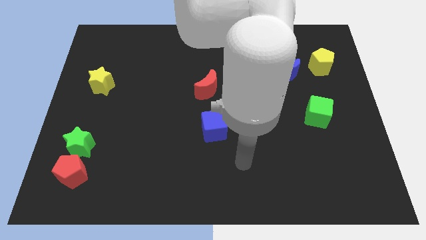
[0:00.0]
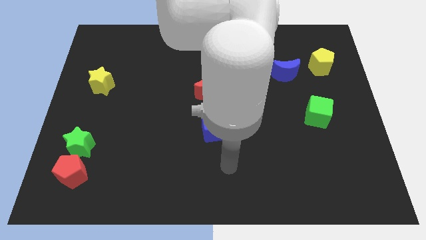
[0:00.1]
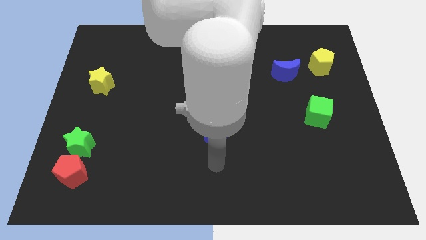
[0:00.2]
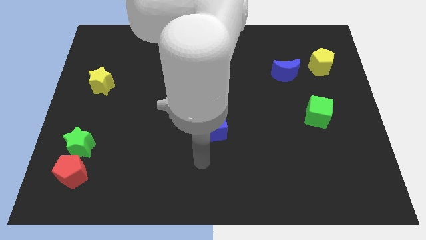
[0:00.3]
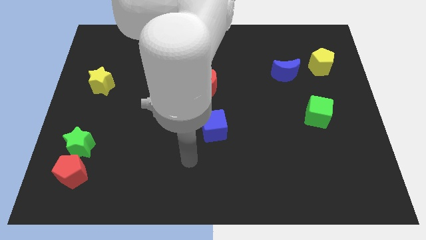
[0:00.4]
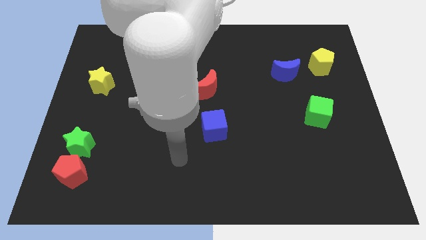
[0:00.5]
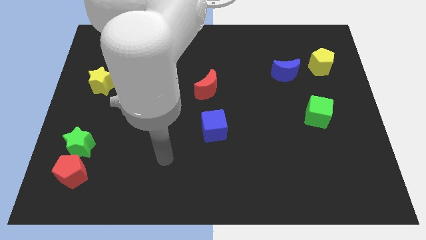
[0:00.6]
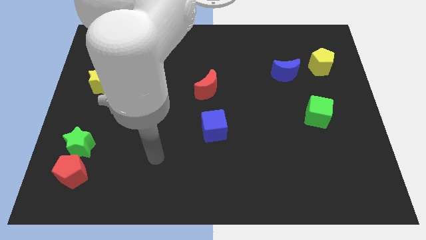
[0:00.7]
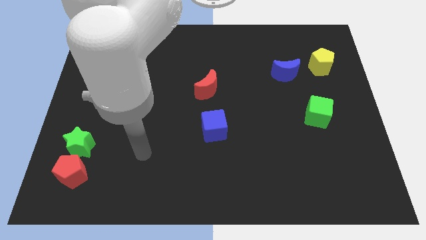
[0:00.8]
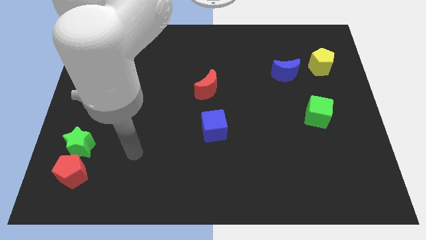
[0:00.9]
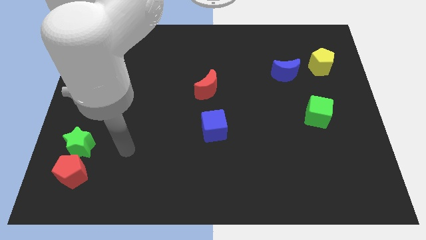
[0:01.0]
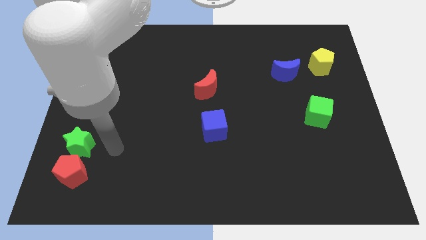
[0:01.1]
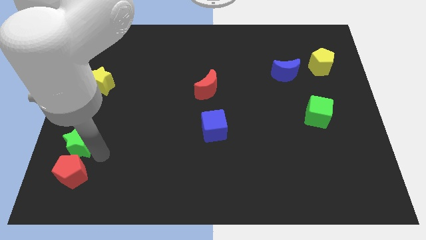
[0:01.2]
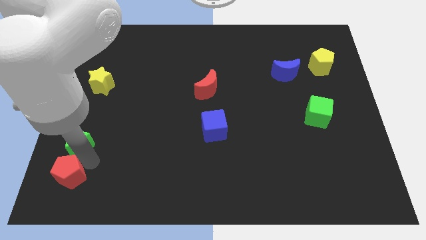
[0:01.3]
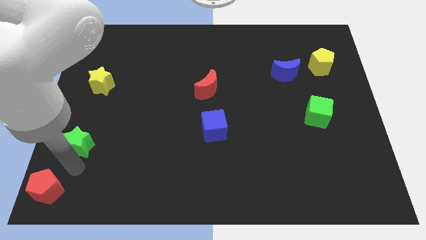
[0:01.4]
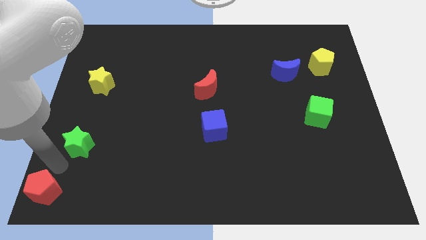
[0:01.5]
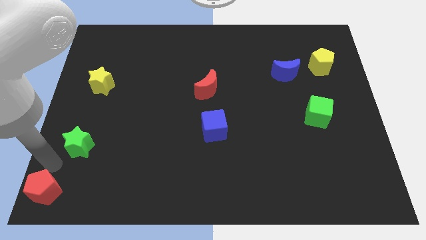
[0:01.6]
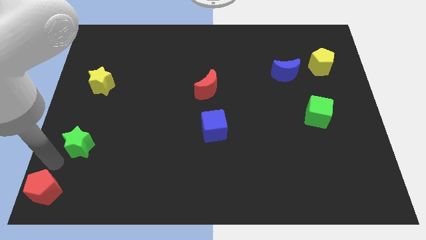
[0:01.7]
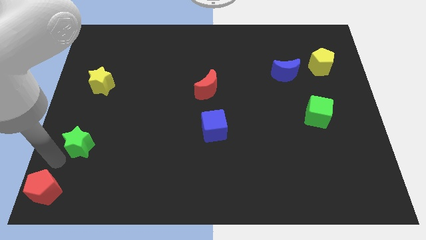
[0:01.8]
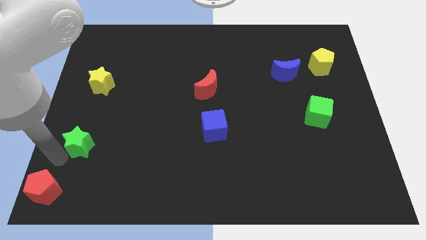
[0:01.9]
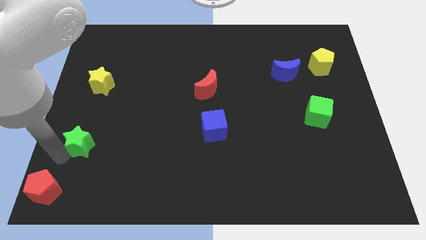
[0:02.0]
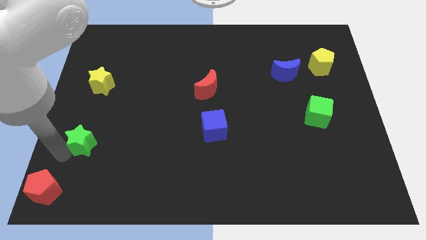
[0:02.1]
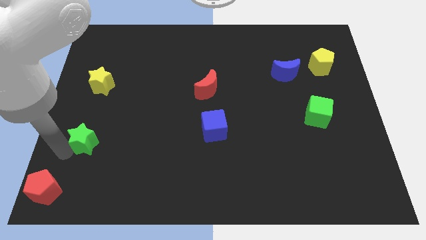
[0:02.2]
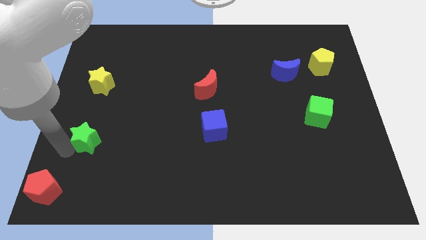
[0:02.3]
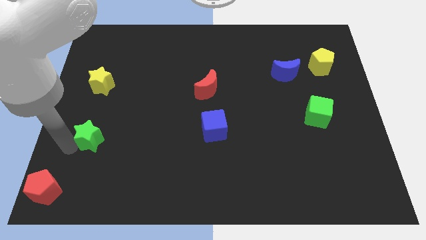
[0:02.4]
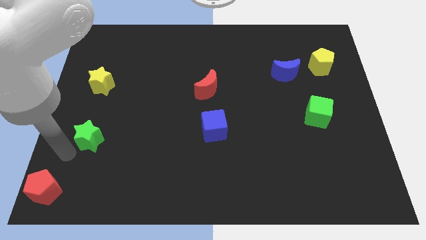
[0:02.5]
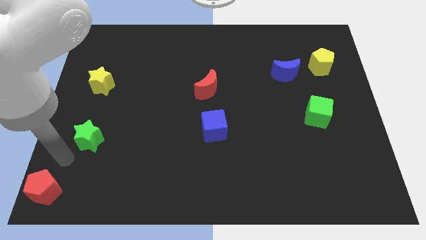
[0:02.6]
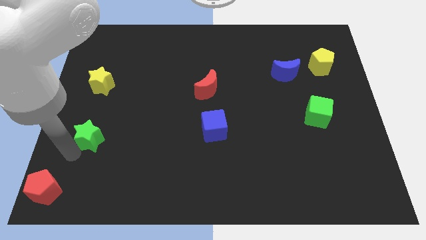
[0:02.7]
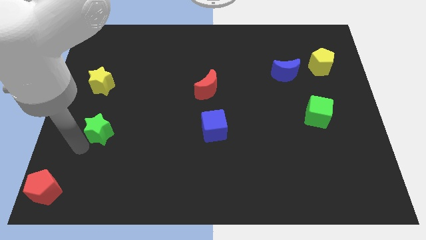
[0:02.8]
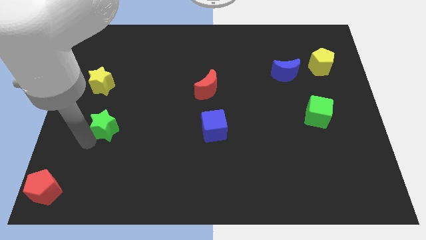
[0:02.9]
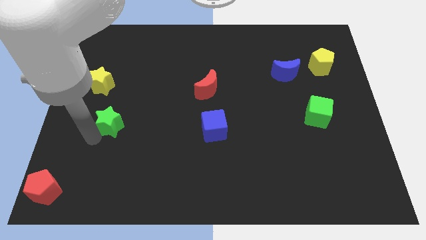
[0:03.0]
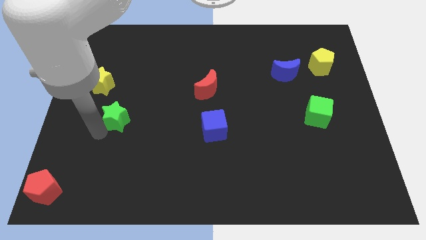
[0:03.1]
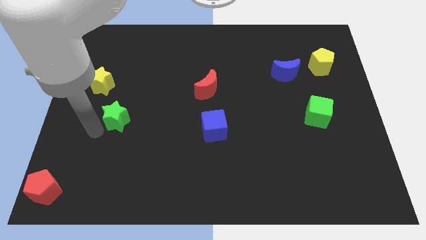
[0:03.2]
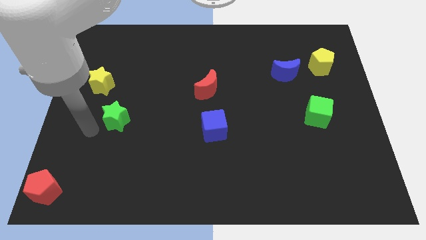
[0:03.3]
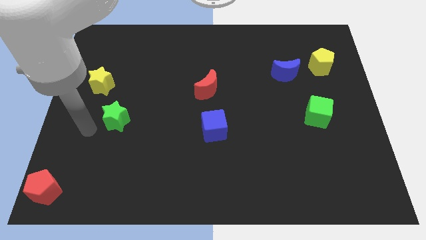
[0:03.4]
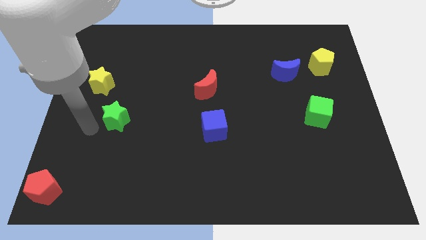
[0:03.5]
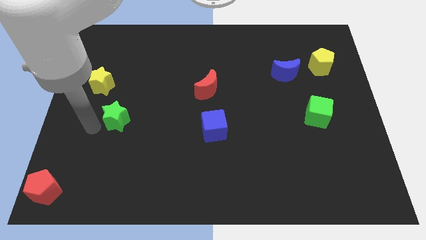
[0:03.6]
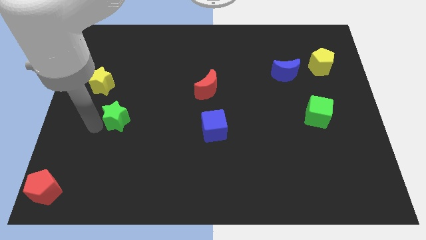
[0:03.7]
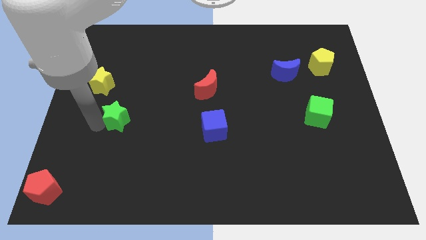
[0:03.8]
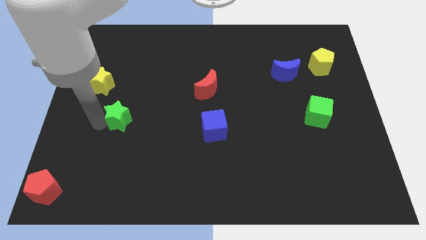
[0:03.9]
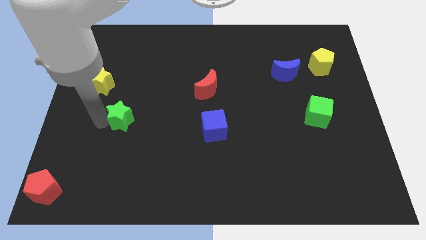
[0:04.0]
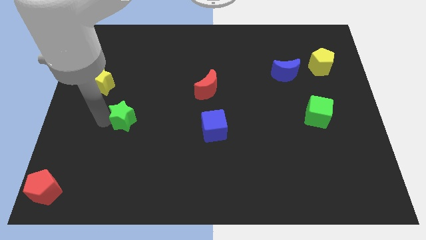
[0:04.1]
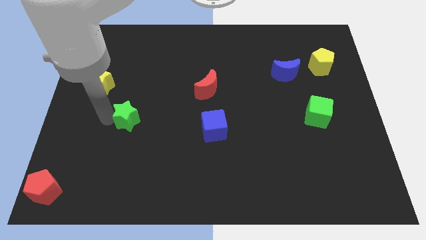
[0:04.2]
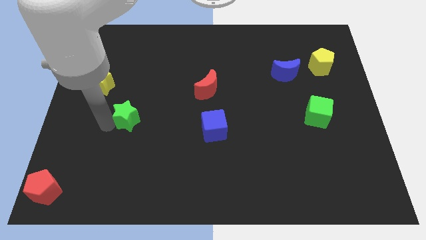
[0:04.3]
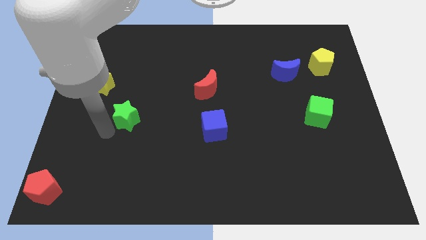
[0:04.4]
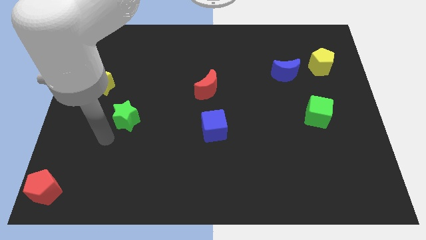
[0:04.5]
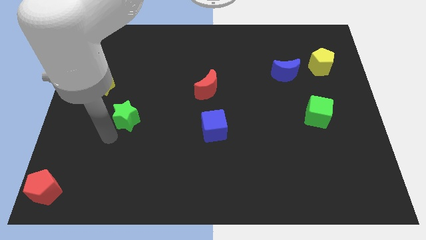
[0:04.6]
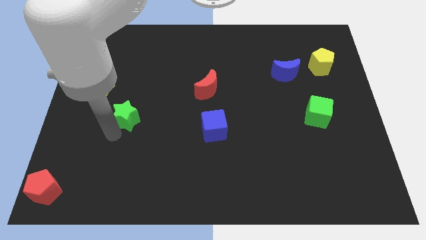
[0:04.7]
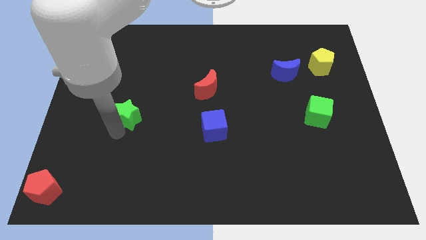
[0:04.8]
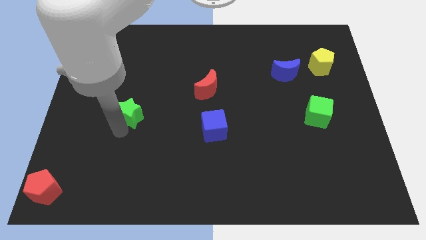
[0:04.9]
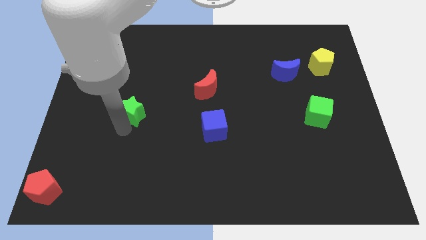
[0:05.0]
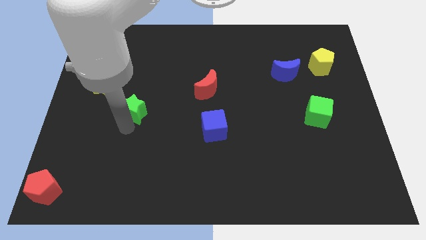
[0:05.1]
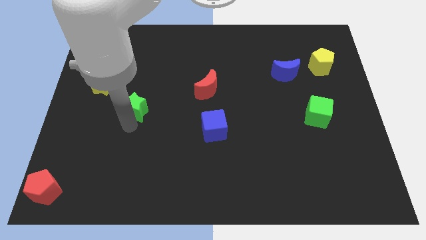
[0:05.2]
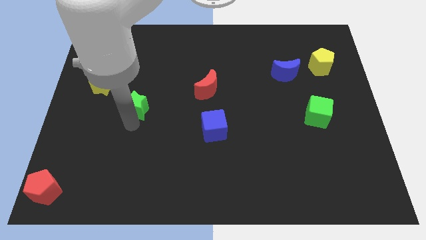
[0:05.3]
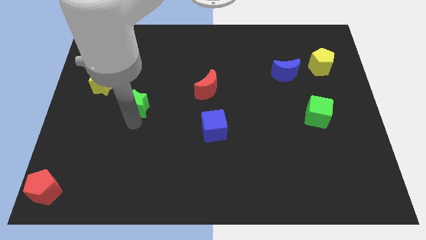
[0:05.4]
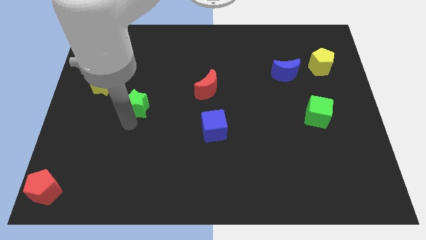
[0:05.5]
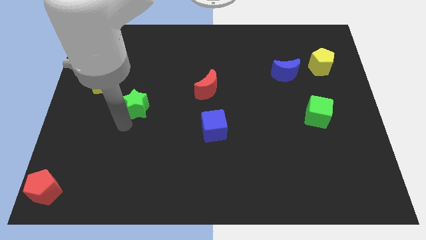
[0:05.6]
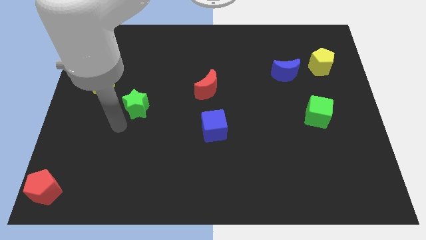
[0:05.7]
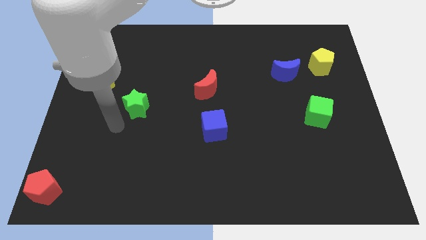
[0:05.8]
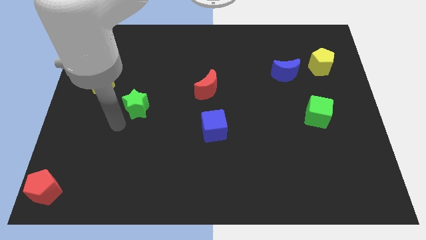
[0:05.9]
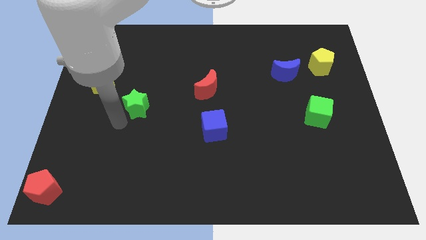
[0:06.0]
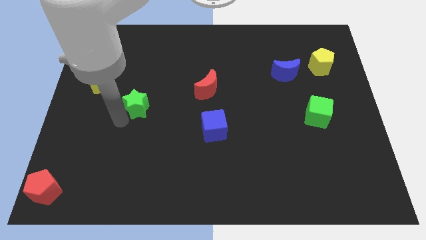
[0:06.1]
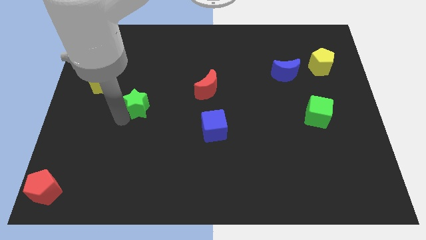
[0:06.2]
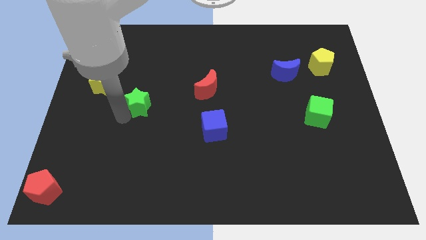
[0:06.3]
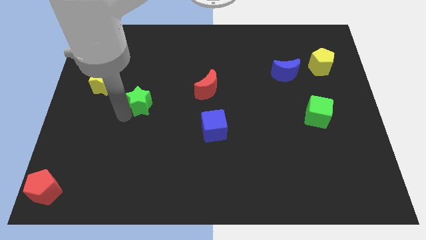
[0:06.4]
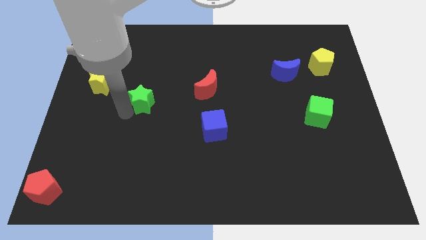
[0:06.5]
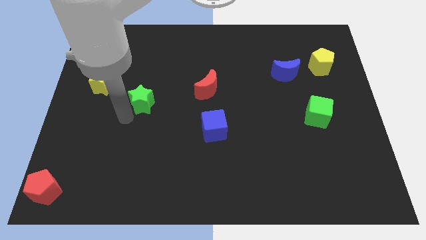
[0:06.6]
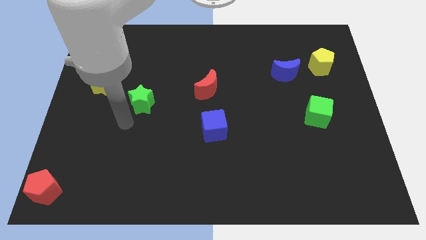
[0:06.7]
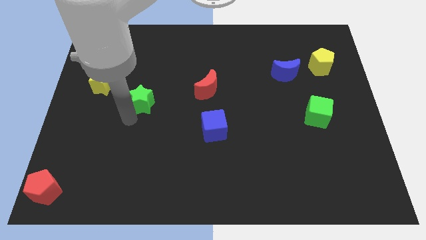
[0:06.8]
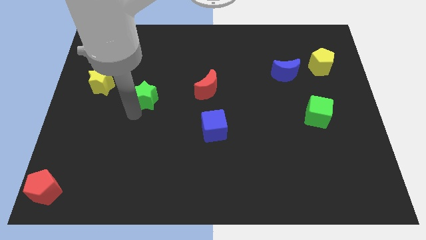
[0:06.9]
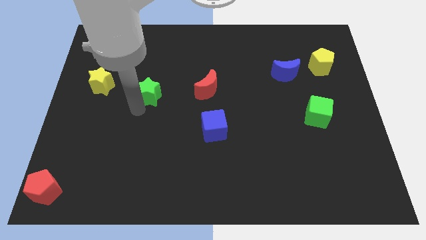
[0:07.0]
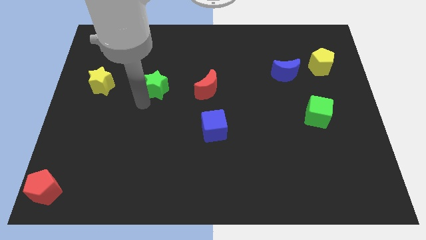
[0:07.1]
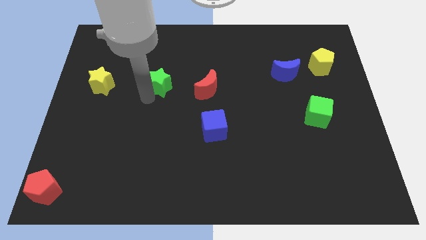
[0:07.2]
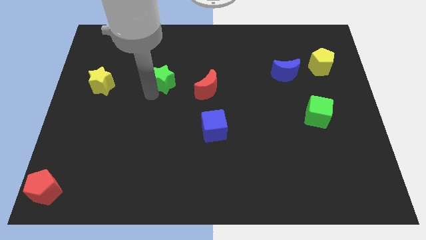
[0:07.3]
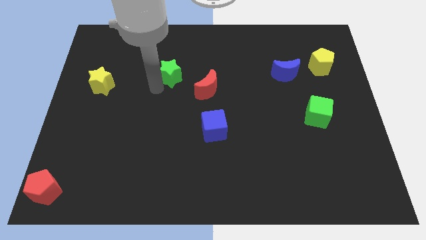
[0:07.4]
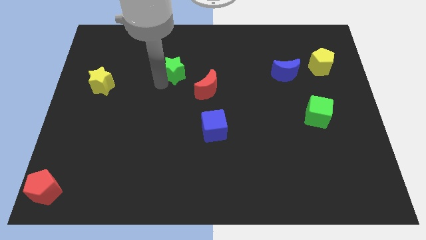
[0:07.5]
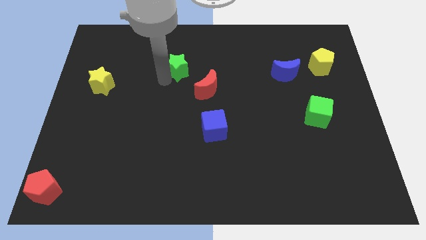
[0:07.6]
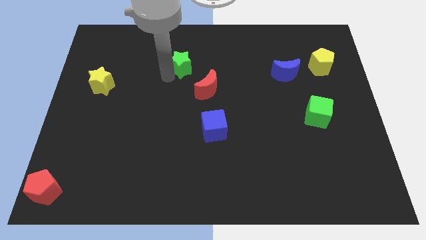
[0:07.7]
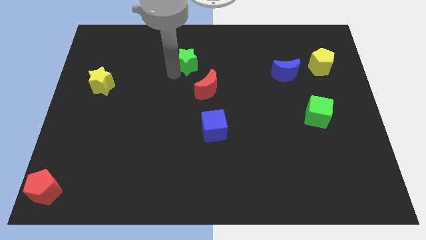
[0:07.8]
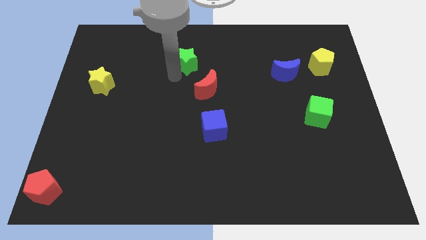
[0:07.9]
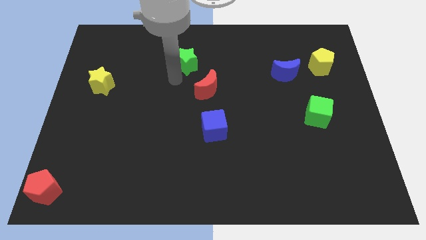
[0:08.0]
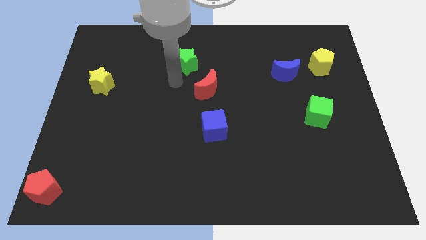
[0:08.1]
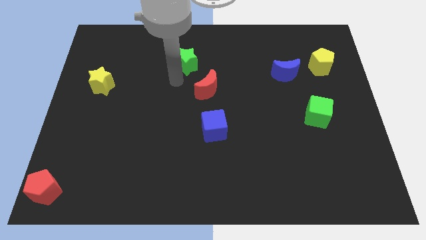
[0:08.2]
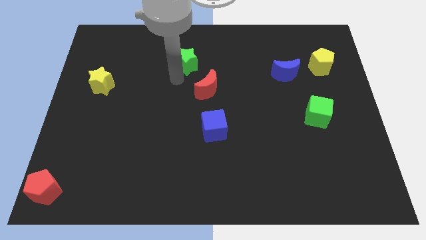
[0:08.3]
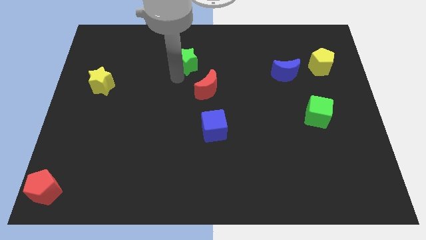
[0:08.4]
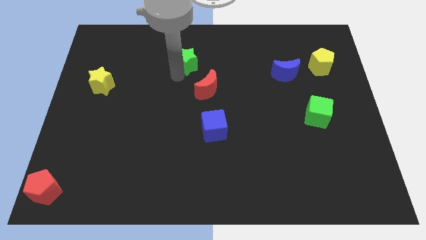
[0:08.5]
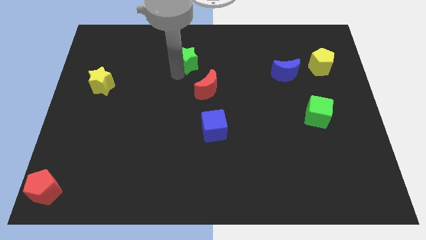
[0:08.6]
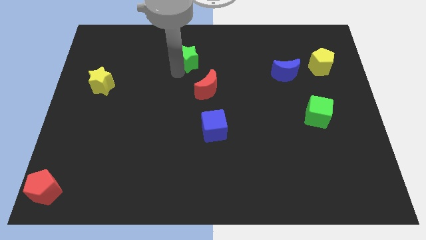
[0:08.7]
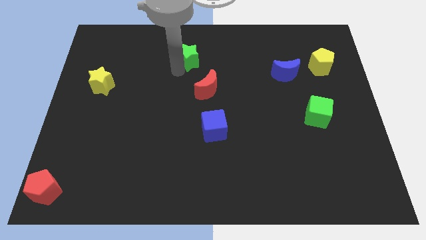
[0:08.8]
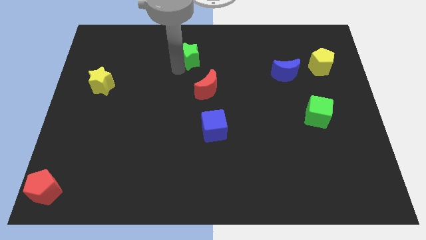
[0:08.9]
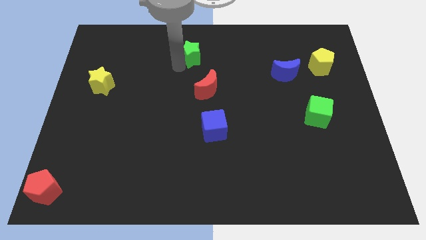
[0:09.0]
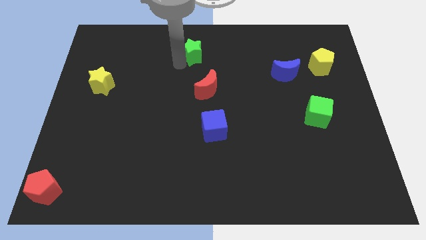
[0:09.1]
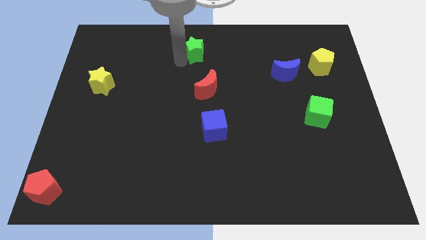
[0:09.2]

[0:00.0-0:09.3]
slide the green star to the top
